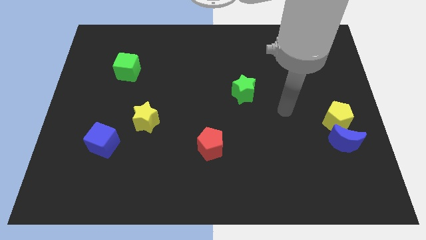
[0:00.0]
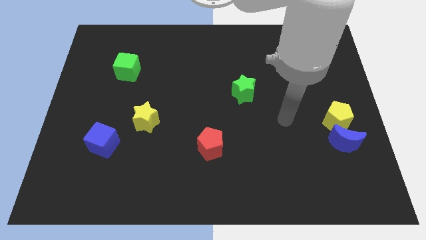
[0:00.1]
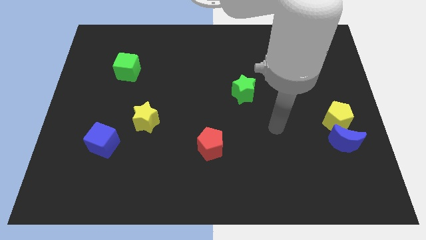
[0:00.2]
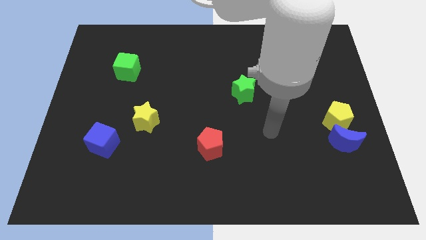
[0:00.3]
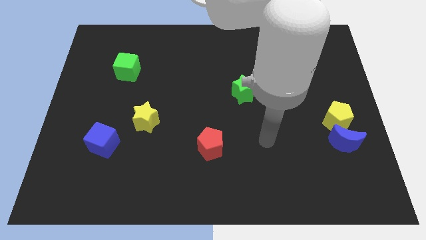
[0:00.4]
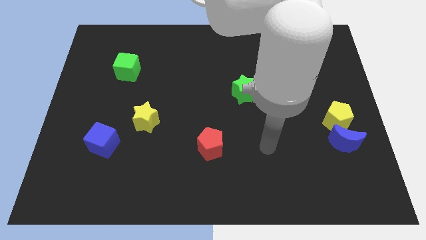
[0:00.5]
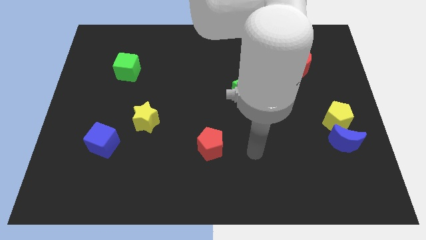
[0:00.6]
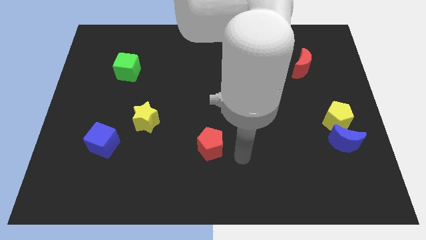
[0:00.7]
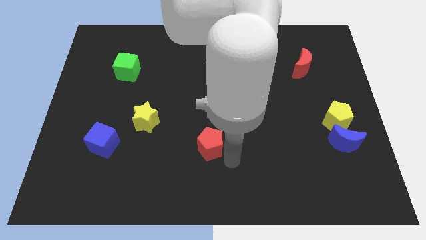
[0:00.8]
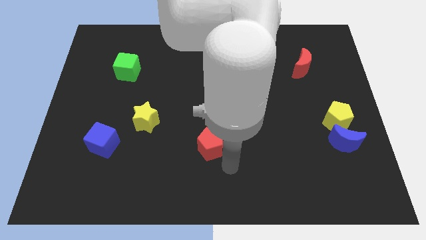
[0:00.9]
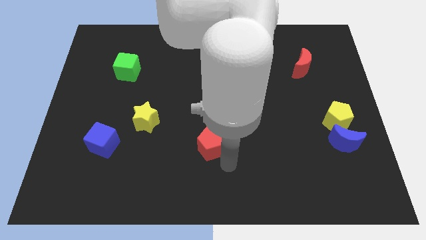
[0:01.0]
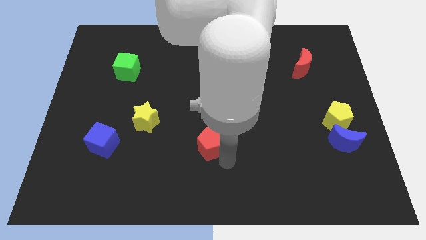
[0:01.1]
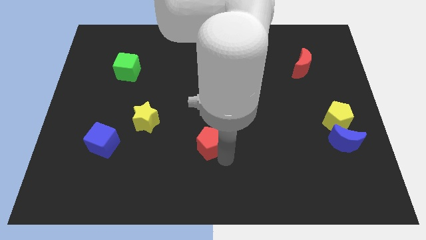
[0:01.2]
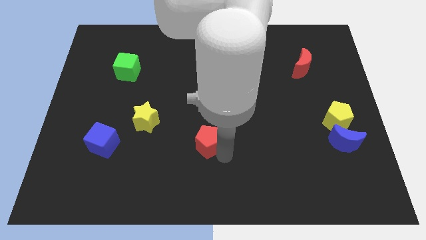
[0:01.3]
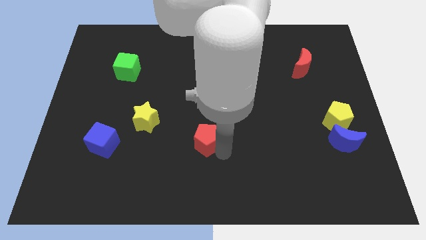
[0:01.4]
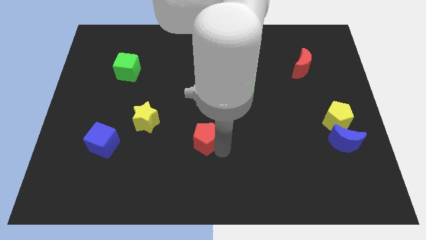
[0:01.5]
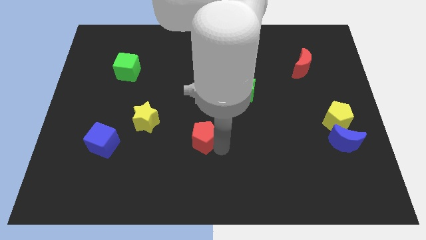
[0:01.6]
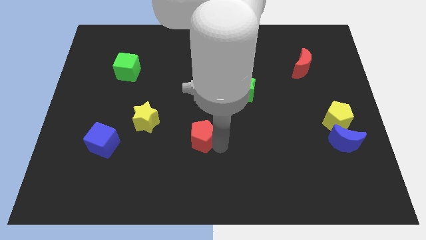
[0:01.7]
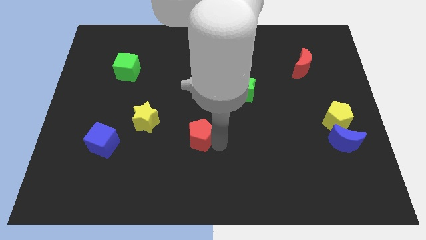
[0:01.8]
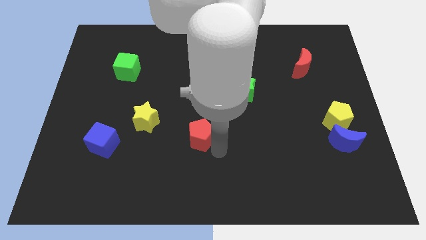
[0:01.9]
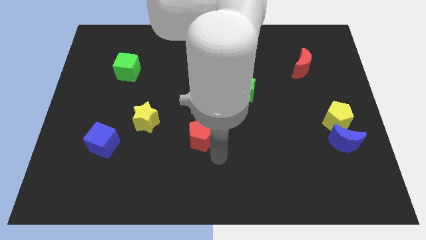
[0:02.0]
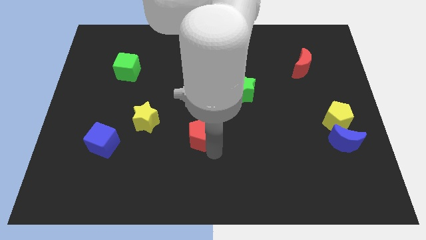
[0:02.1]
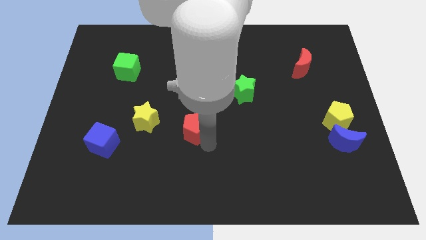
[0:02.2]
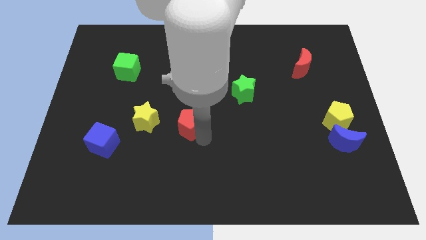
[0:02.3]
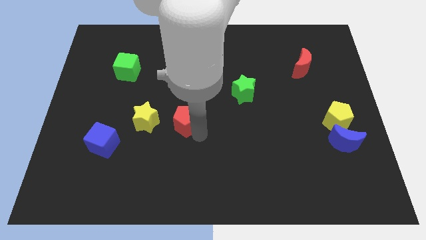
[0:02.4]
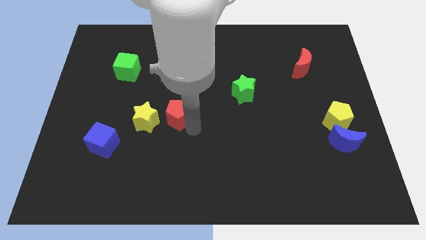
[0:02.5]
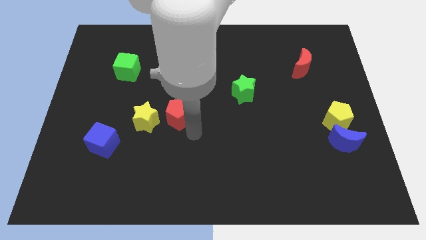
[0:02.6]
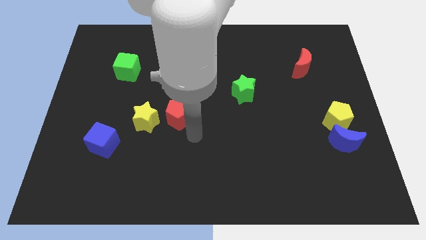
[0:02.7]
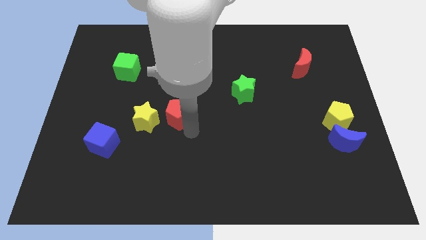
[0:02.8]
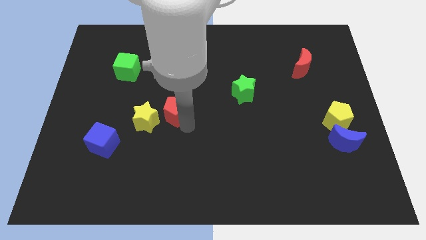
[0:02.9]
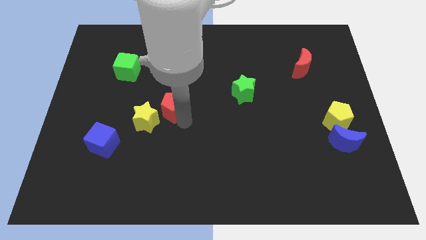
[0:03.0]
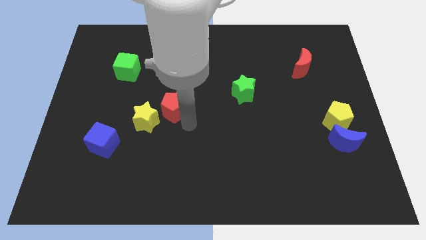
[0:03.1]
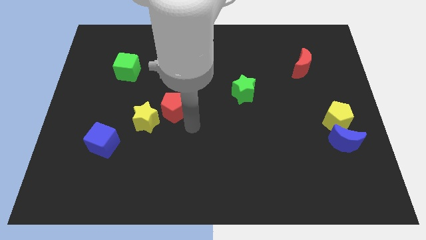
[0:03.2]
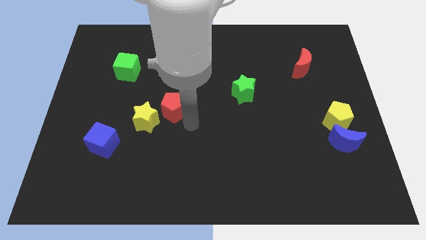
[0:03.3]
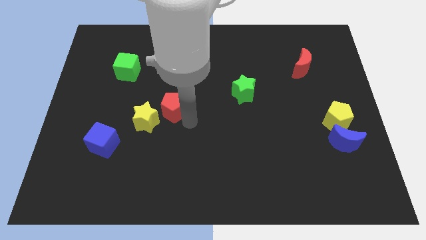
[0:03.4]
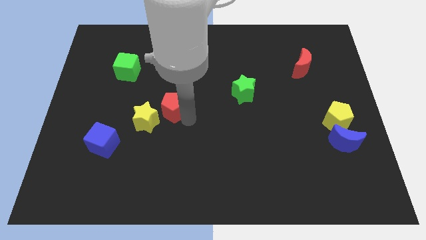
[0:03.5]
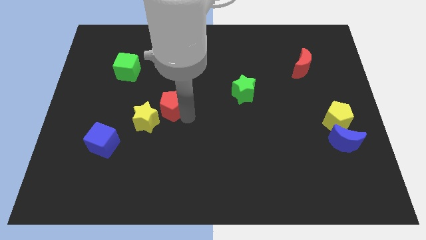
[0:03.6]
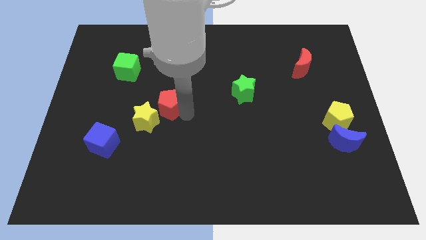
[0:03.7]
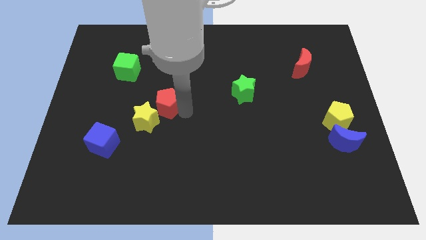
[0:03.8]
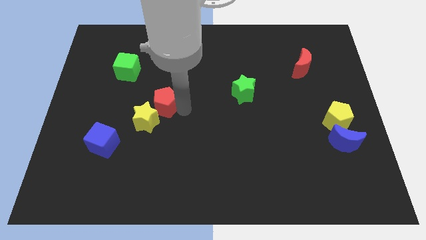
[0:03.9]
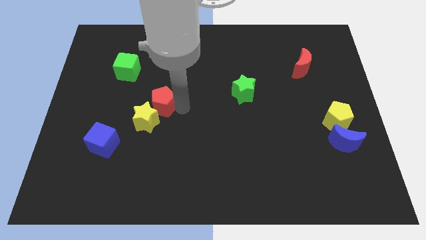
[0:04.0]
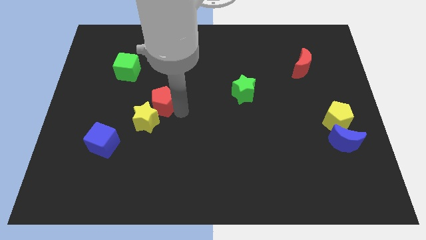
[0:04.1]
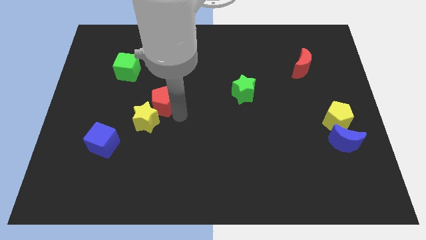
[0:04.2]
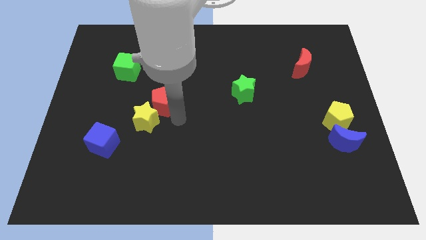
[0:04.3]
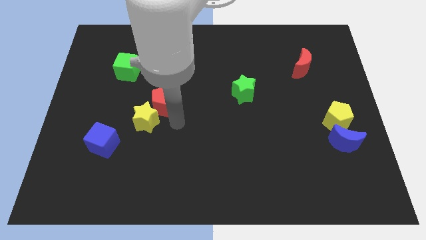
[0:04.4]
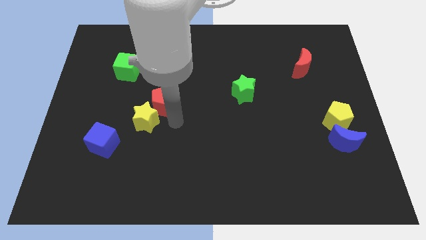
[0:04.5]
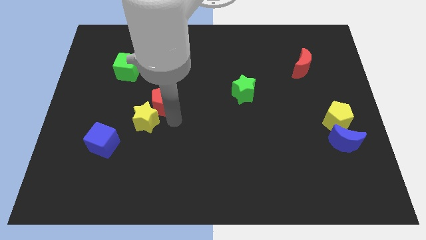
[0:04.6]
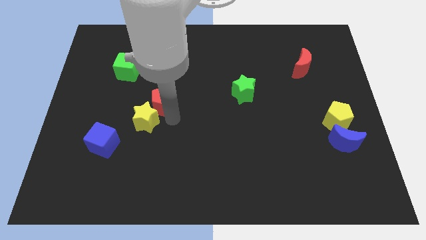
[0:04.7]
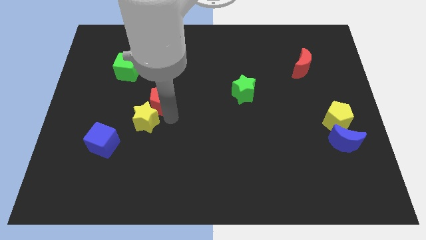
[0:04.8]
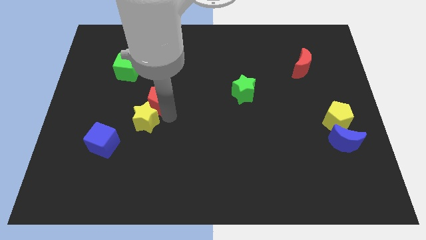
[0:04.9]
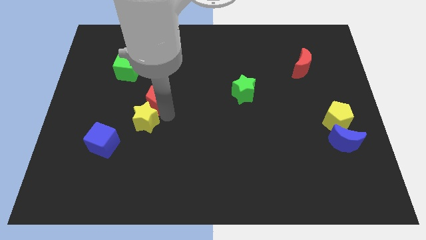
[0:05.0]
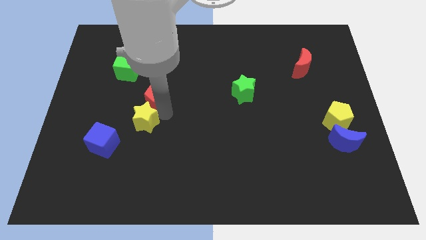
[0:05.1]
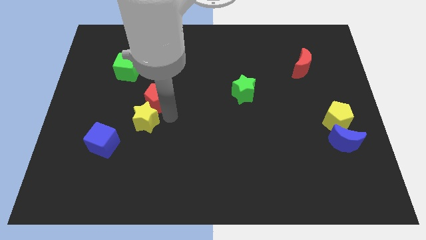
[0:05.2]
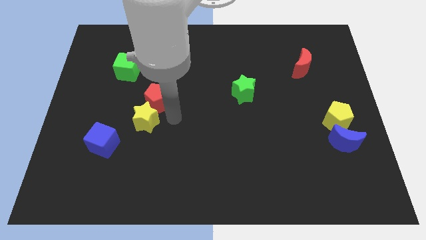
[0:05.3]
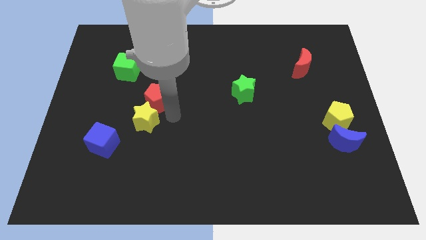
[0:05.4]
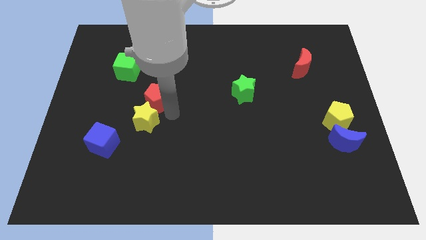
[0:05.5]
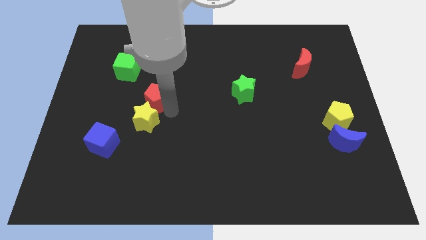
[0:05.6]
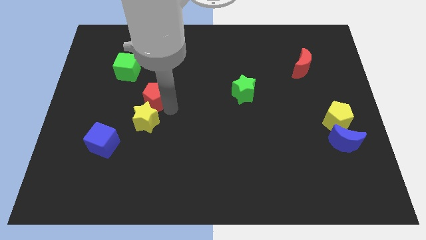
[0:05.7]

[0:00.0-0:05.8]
move the red pentagon to the bottom right of the green cube
